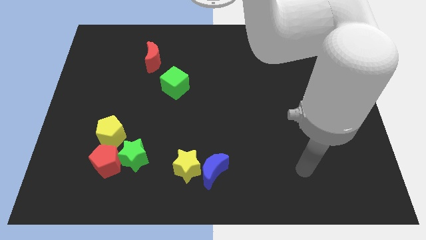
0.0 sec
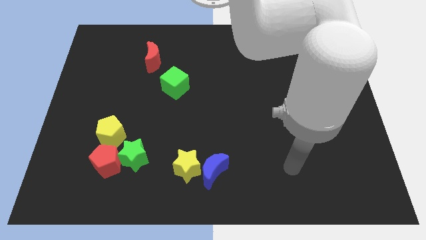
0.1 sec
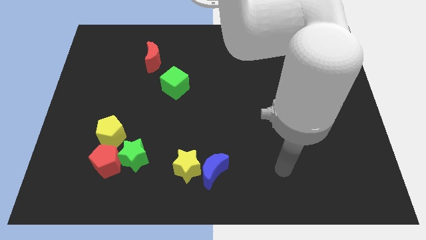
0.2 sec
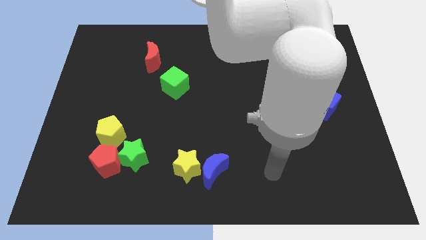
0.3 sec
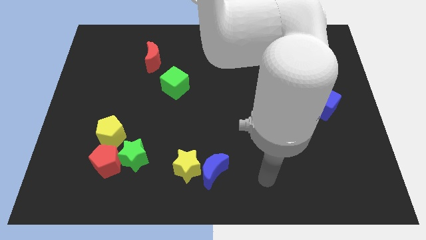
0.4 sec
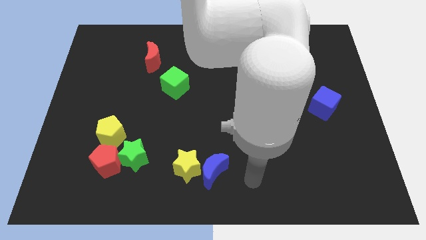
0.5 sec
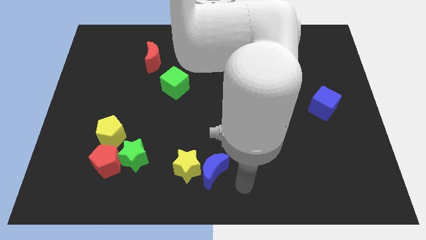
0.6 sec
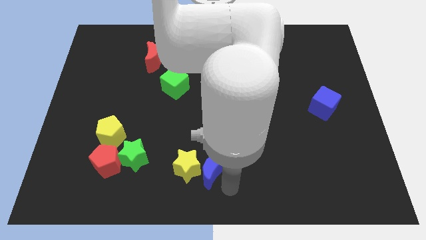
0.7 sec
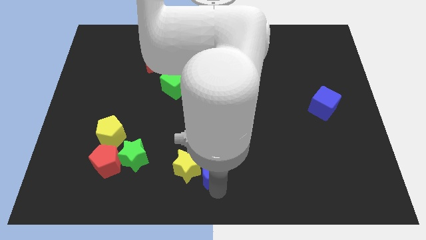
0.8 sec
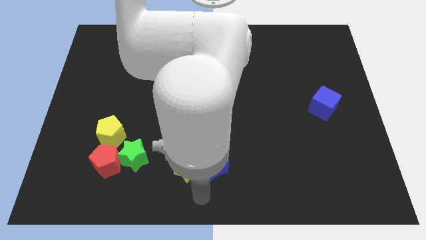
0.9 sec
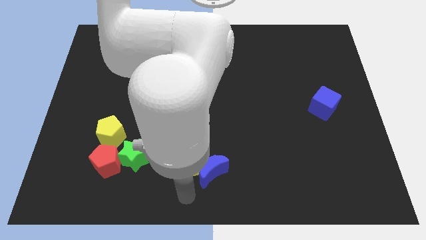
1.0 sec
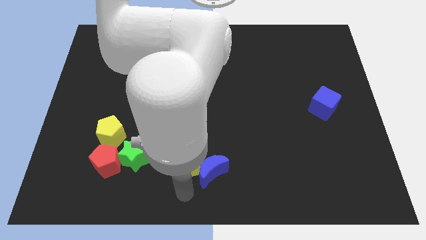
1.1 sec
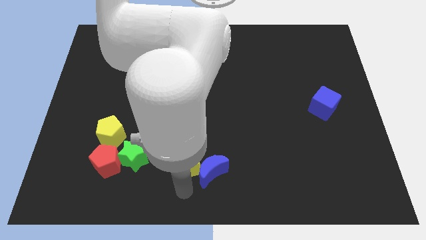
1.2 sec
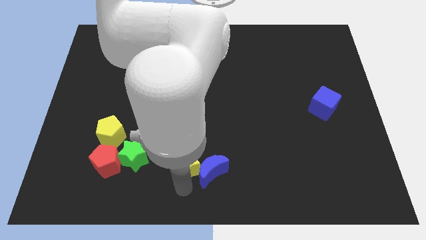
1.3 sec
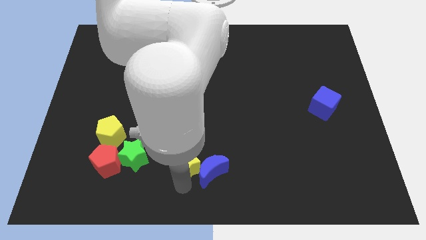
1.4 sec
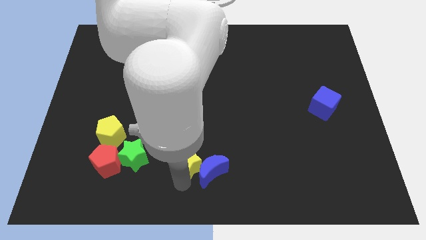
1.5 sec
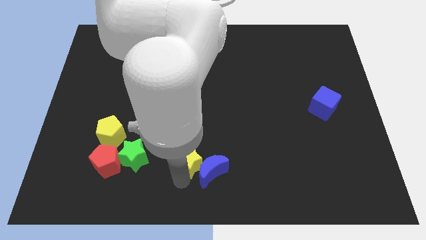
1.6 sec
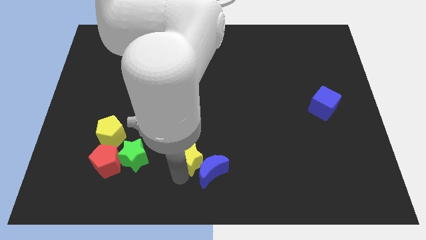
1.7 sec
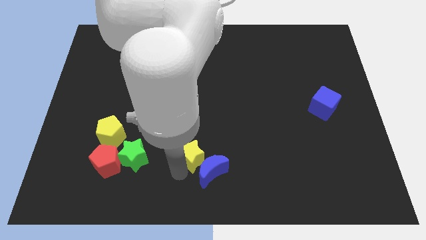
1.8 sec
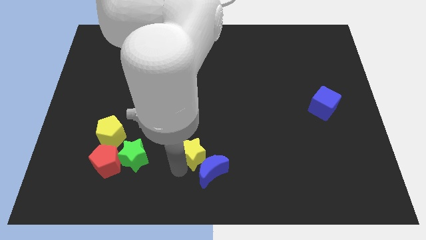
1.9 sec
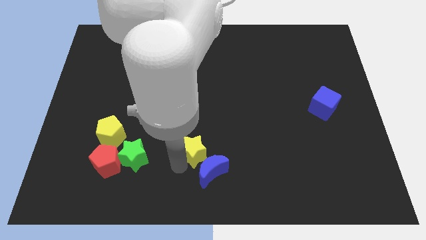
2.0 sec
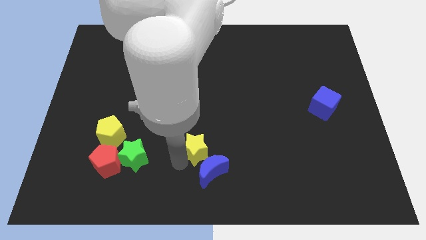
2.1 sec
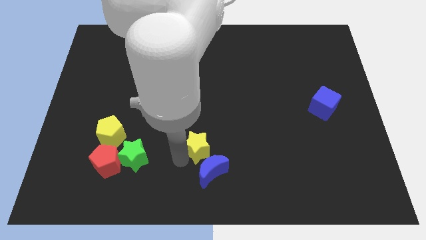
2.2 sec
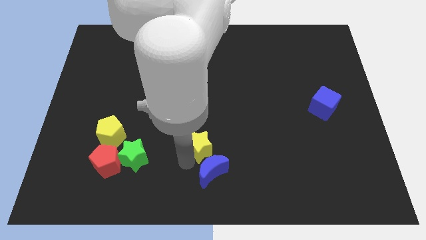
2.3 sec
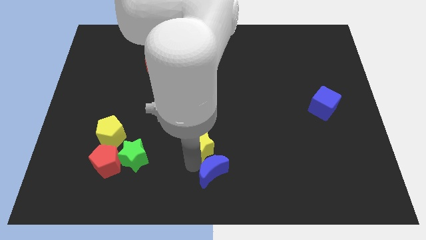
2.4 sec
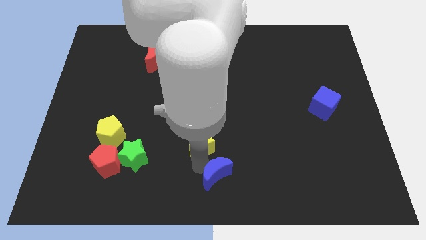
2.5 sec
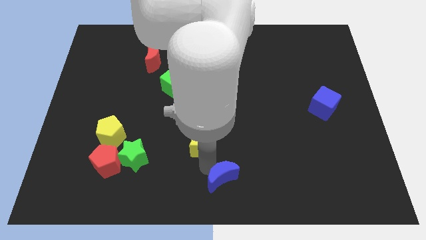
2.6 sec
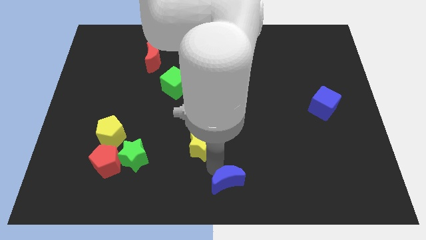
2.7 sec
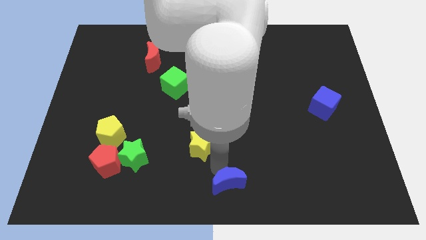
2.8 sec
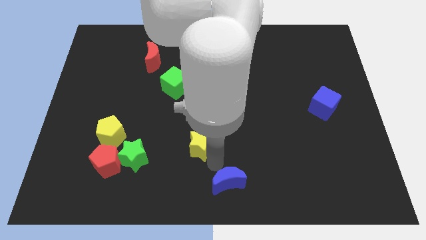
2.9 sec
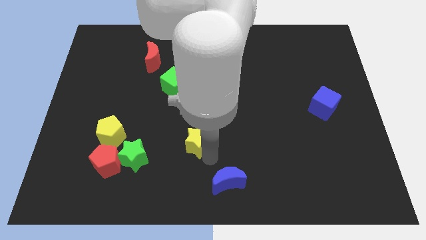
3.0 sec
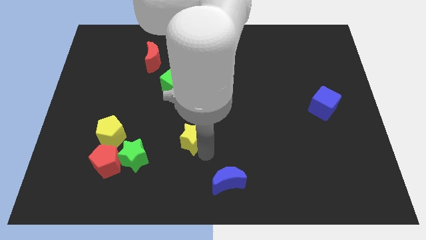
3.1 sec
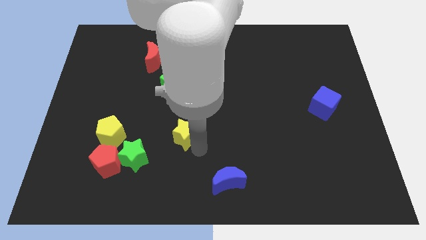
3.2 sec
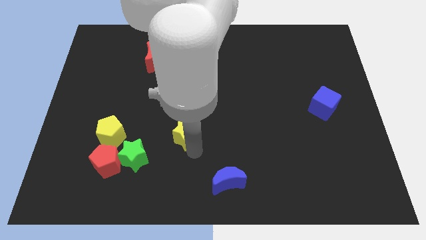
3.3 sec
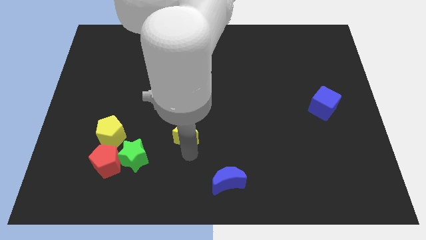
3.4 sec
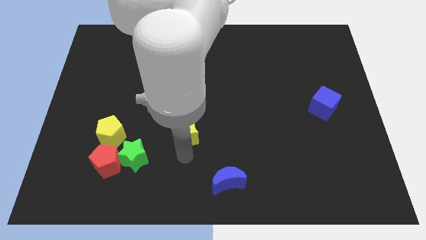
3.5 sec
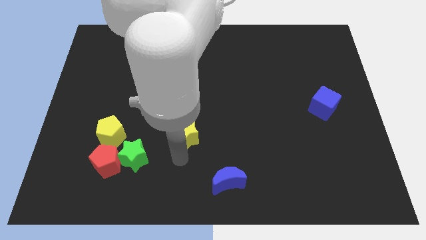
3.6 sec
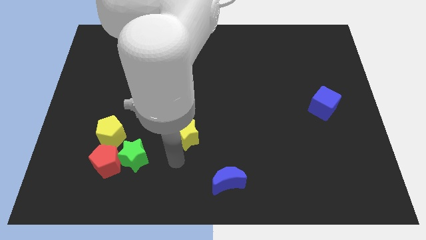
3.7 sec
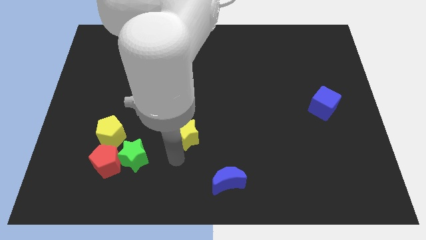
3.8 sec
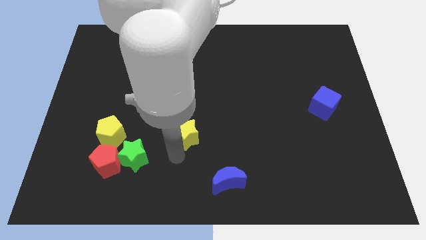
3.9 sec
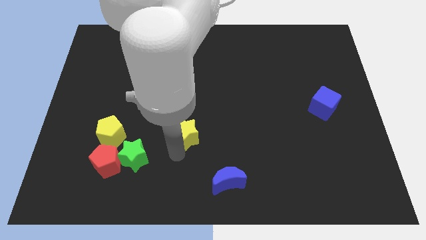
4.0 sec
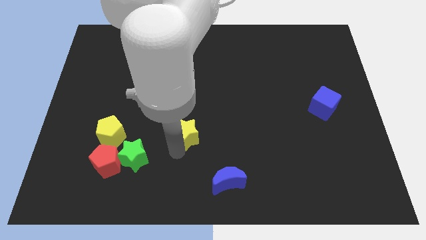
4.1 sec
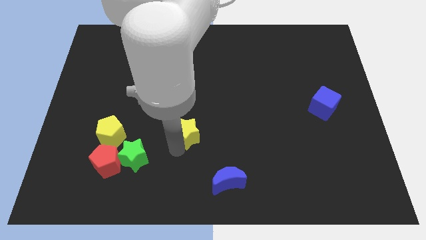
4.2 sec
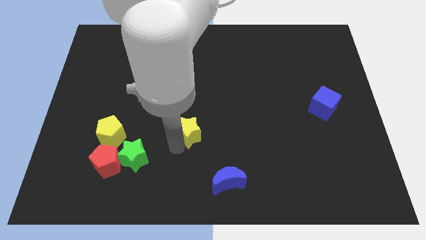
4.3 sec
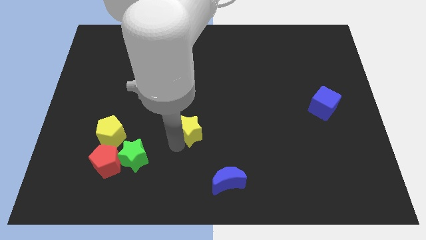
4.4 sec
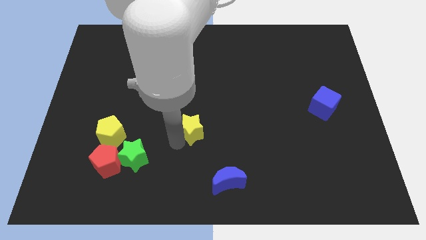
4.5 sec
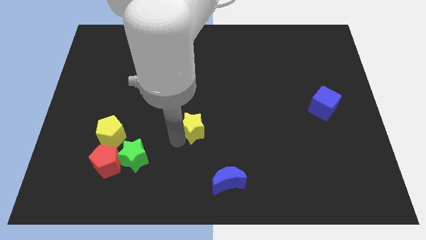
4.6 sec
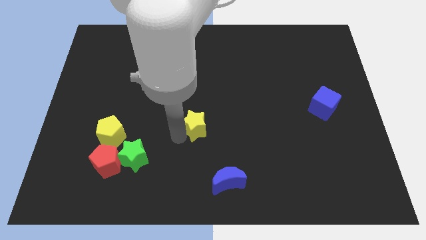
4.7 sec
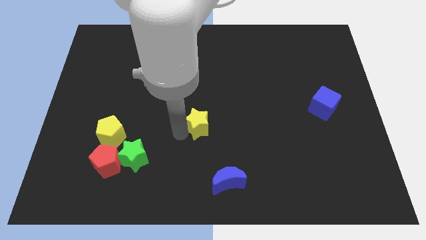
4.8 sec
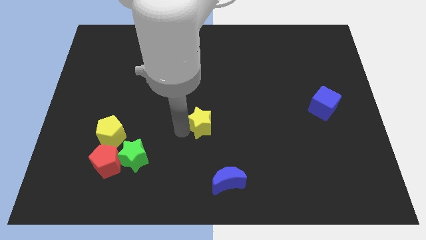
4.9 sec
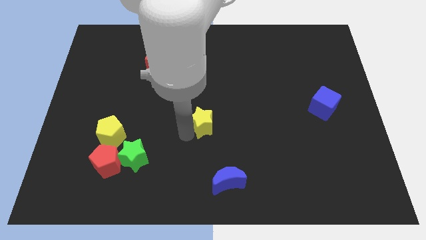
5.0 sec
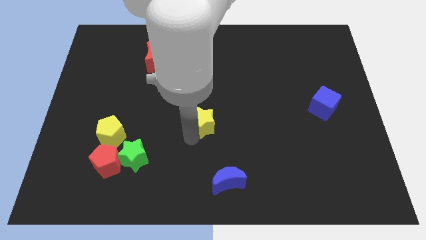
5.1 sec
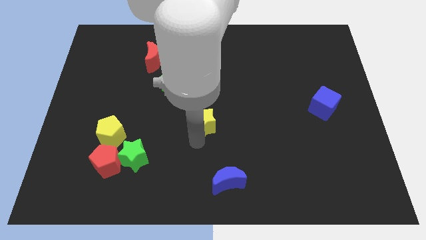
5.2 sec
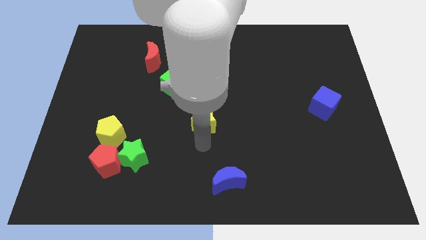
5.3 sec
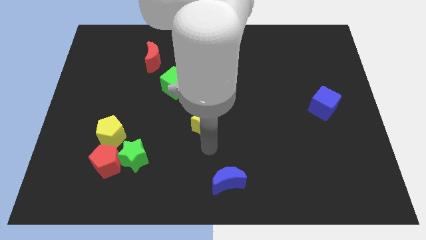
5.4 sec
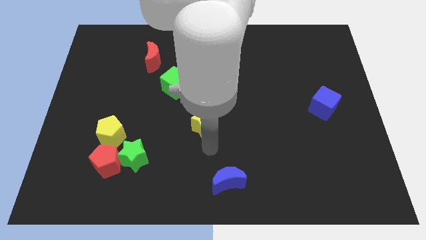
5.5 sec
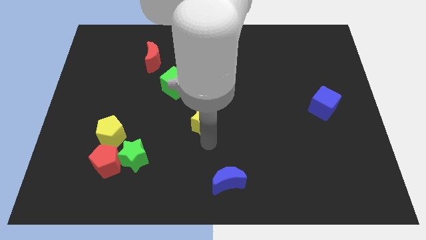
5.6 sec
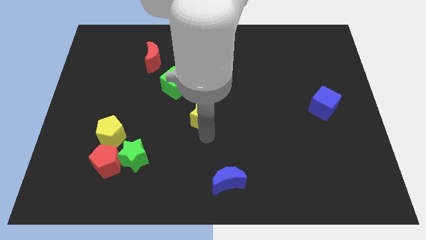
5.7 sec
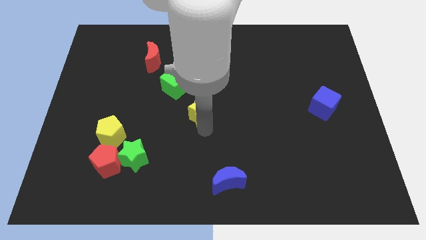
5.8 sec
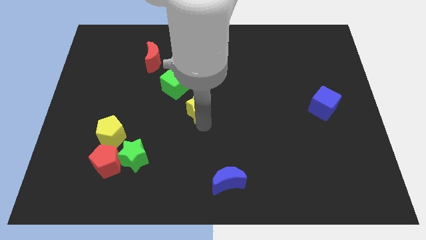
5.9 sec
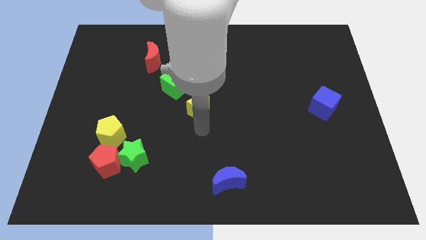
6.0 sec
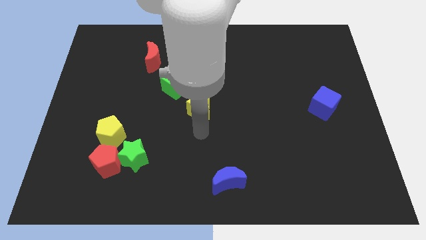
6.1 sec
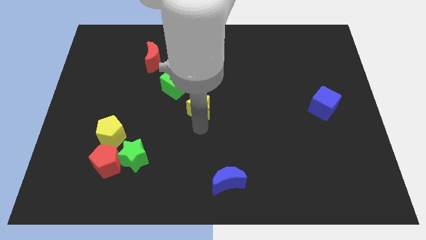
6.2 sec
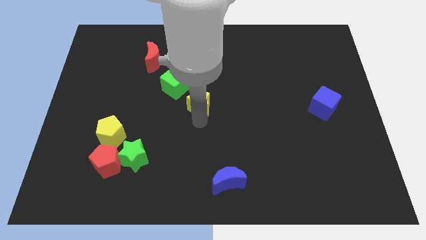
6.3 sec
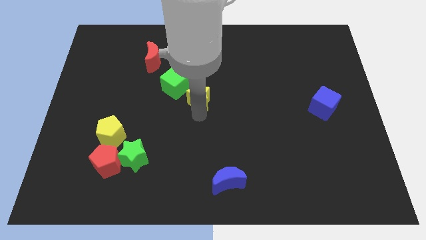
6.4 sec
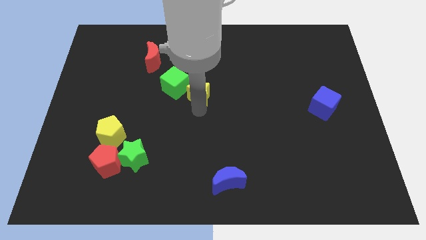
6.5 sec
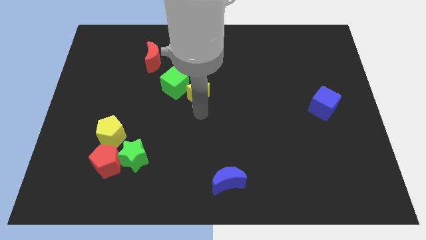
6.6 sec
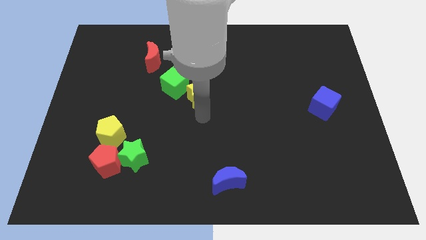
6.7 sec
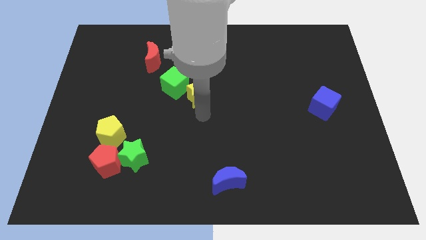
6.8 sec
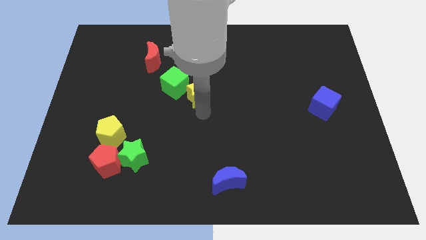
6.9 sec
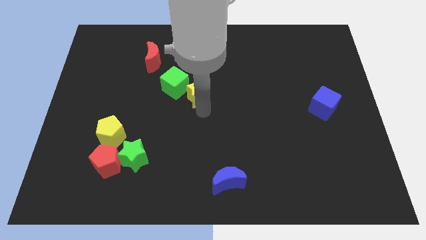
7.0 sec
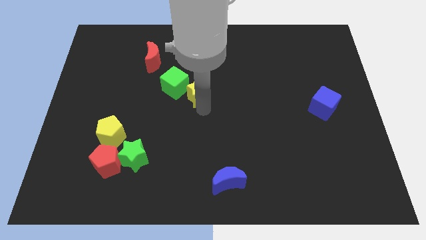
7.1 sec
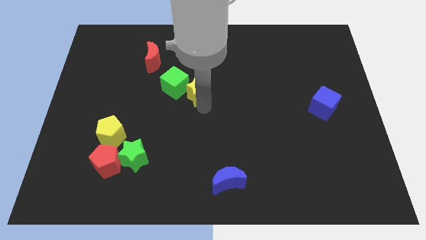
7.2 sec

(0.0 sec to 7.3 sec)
move the yellow star up

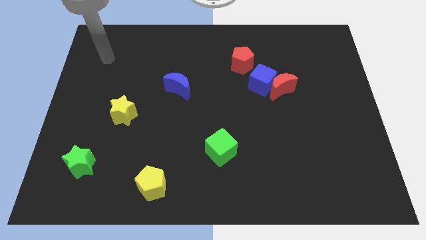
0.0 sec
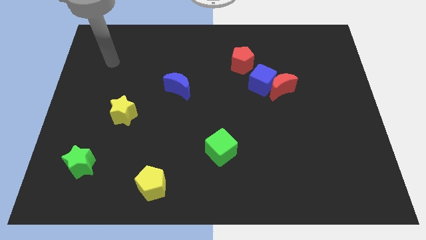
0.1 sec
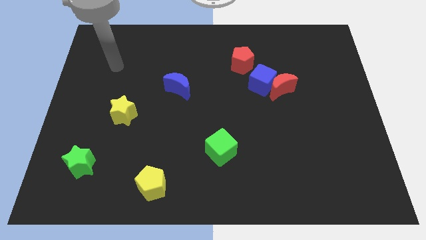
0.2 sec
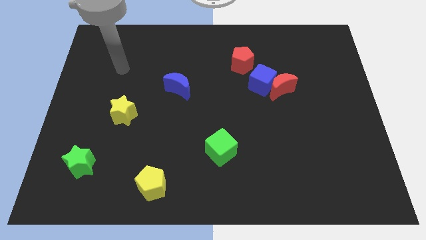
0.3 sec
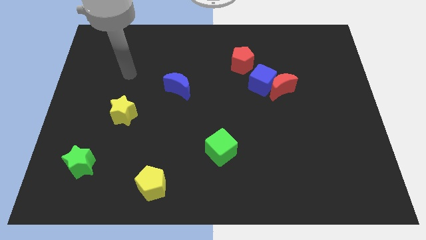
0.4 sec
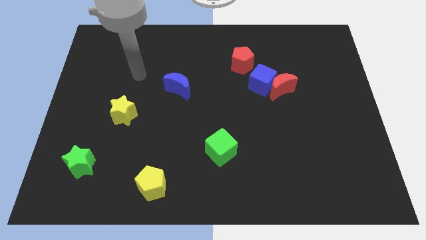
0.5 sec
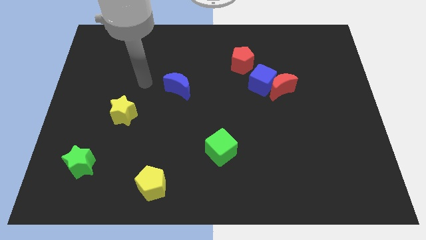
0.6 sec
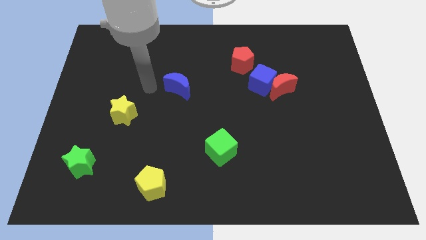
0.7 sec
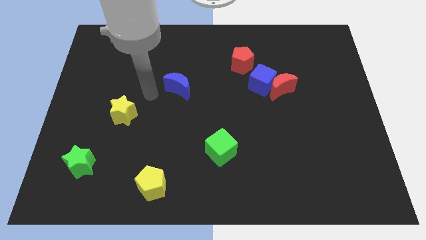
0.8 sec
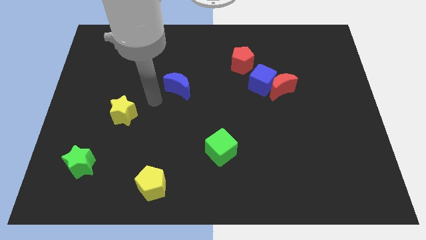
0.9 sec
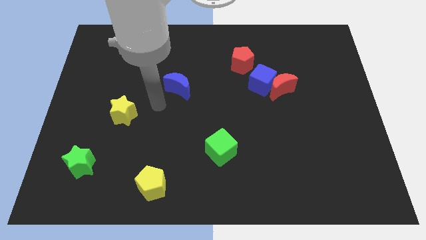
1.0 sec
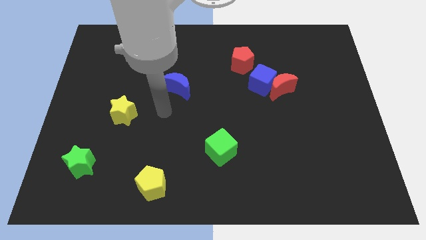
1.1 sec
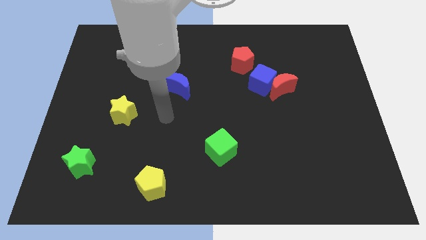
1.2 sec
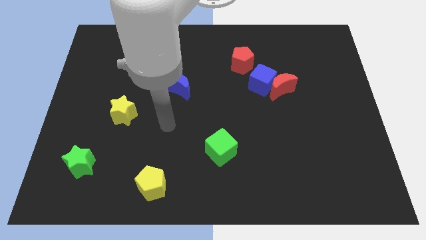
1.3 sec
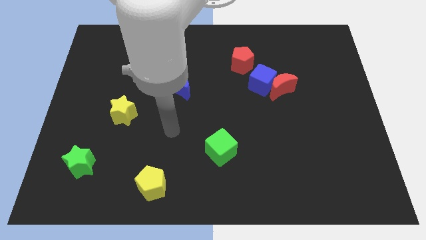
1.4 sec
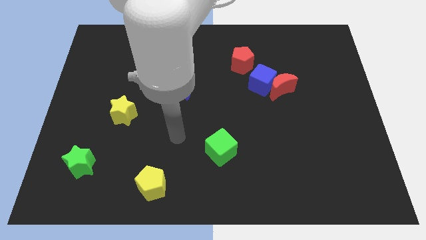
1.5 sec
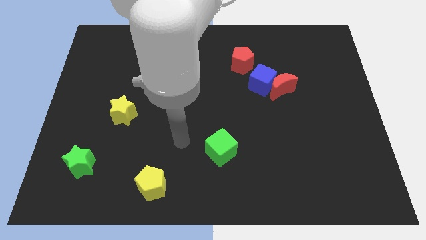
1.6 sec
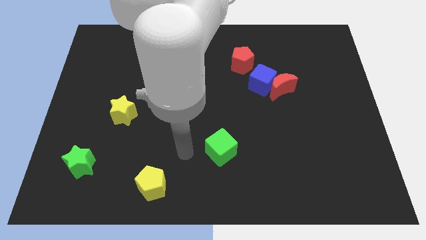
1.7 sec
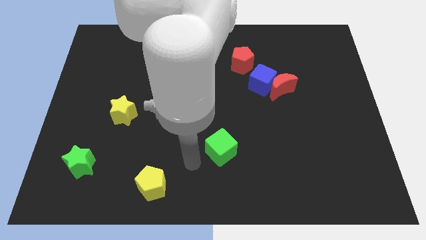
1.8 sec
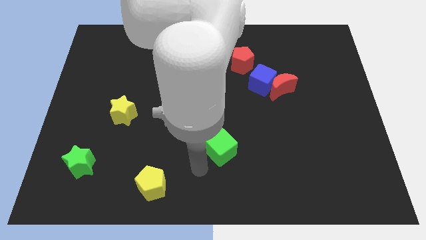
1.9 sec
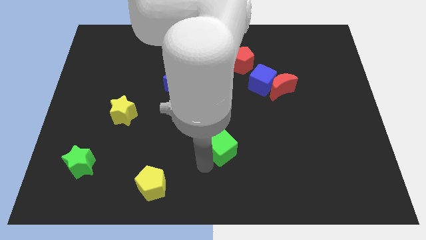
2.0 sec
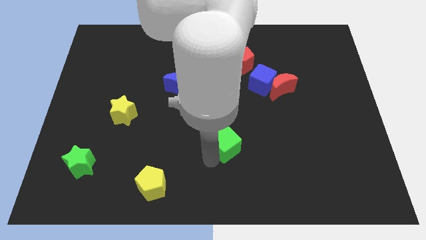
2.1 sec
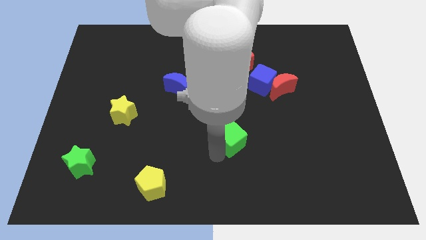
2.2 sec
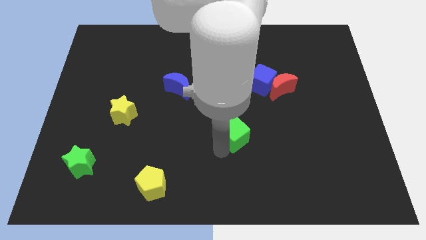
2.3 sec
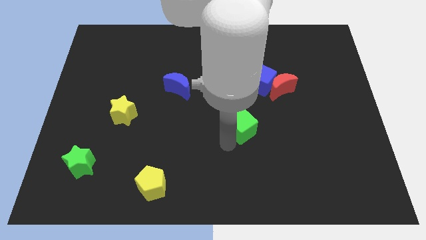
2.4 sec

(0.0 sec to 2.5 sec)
move the green cube somewhat up and right diagonally
